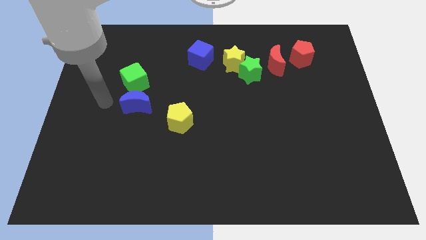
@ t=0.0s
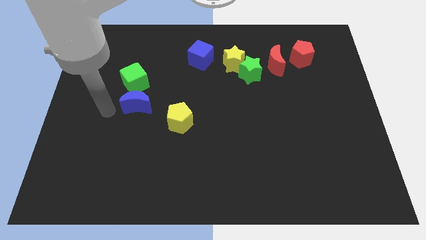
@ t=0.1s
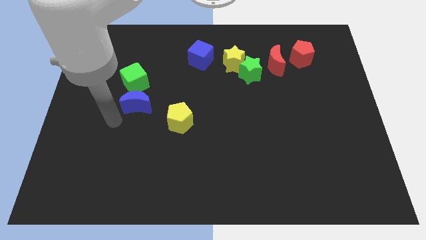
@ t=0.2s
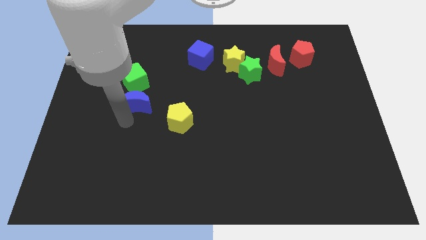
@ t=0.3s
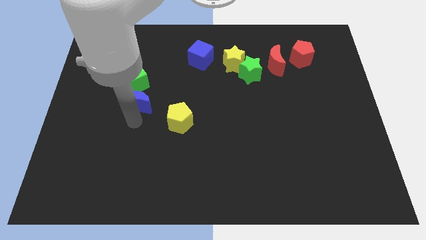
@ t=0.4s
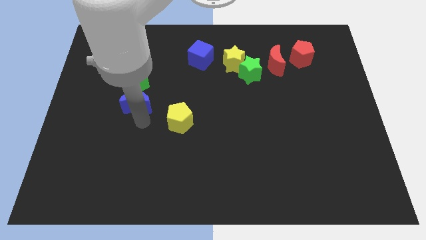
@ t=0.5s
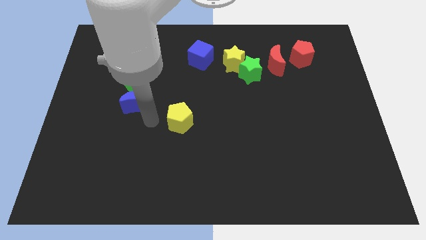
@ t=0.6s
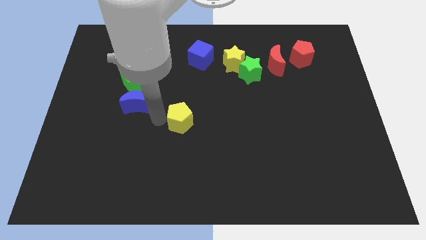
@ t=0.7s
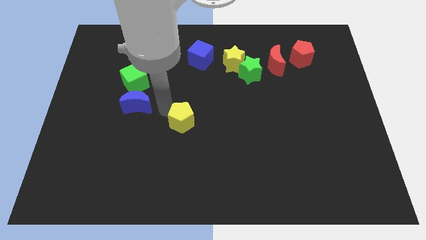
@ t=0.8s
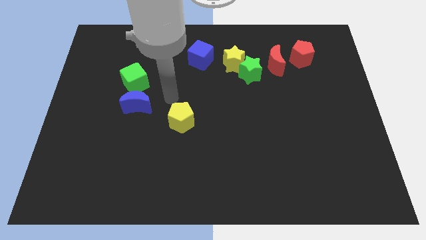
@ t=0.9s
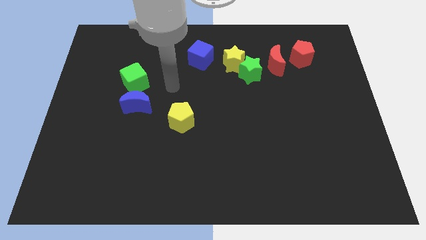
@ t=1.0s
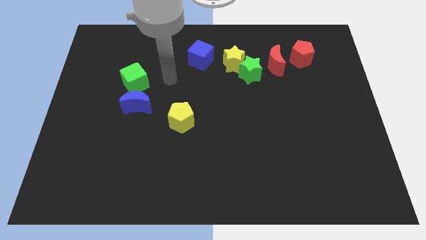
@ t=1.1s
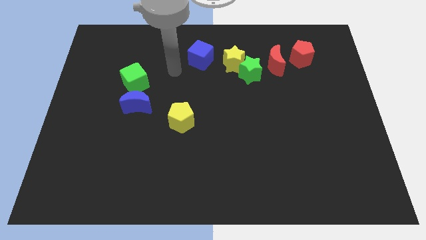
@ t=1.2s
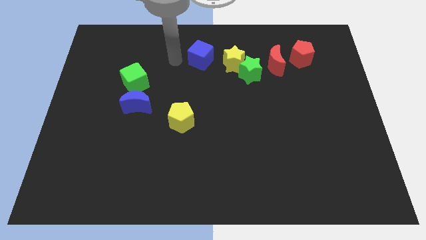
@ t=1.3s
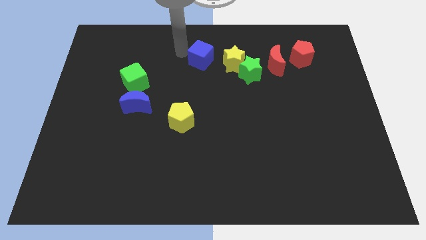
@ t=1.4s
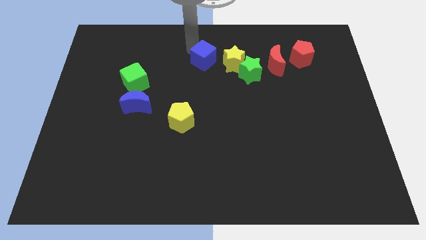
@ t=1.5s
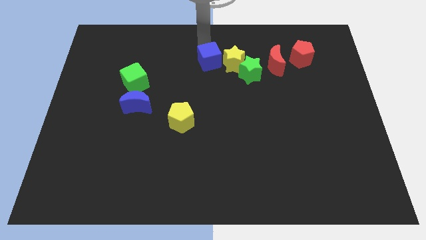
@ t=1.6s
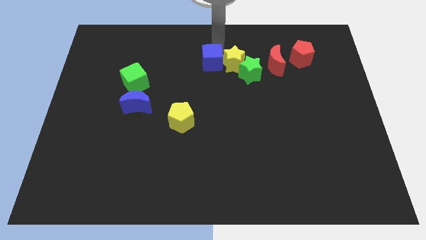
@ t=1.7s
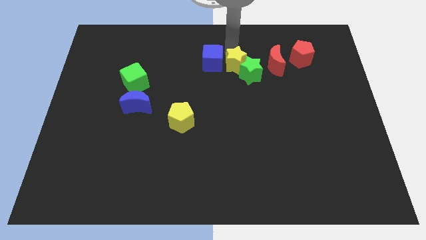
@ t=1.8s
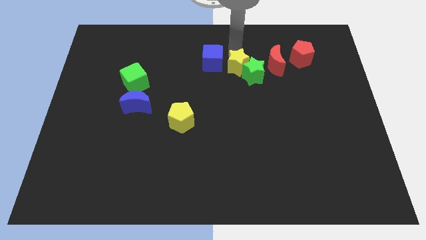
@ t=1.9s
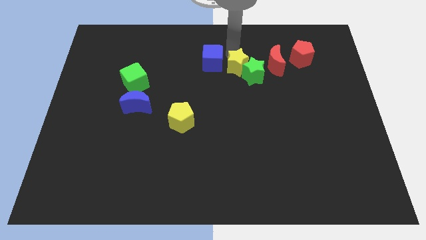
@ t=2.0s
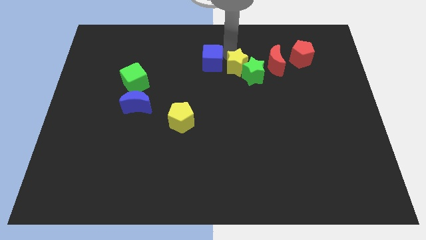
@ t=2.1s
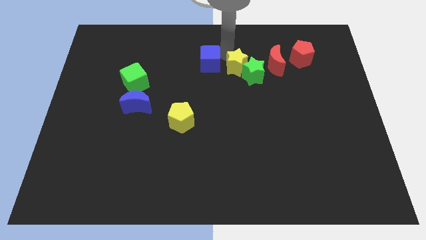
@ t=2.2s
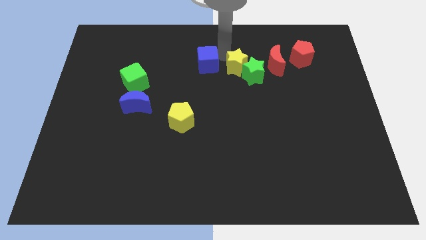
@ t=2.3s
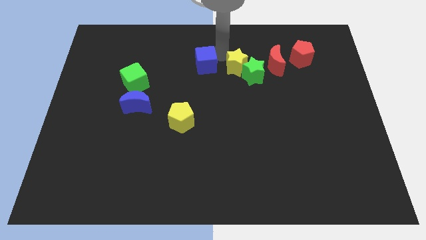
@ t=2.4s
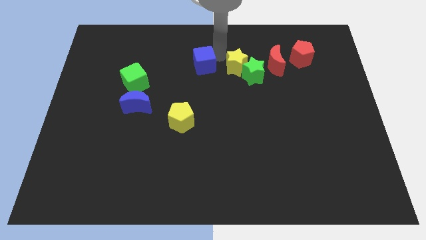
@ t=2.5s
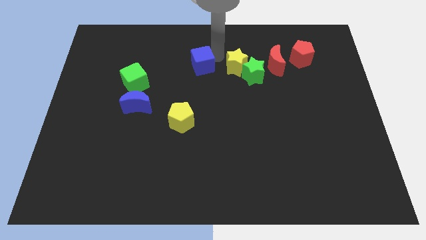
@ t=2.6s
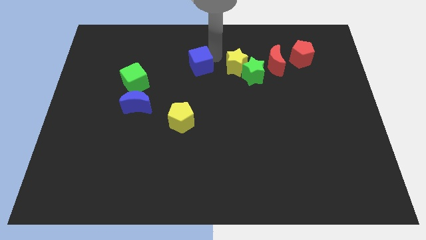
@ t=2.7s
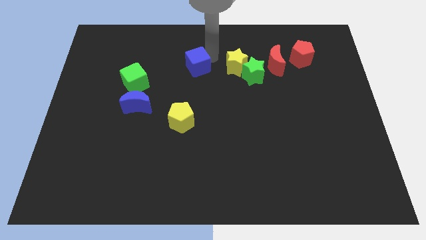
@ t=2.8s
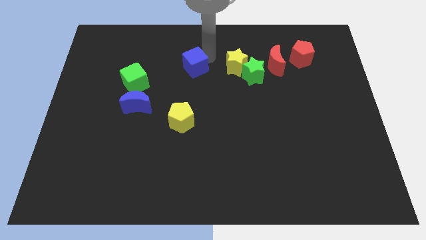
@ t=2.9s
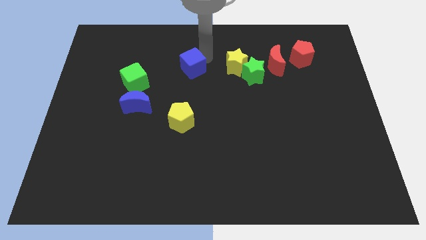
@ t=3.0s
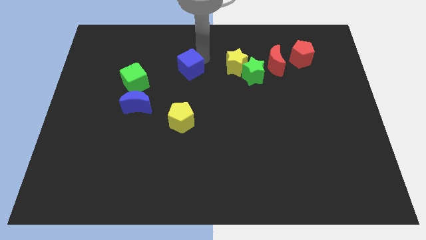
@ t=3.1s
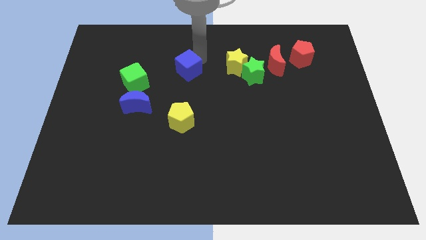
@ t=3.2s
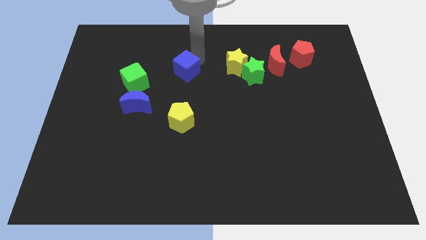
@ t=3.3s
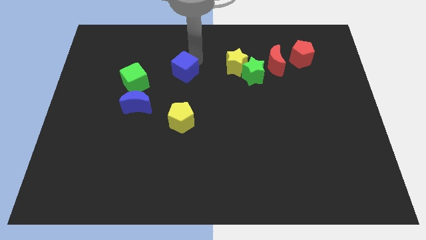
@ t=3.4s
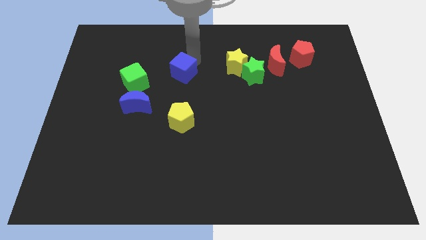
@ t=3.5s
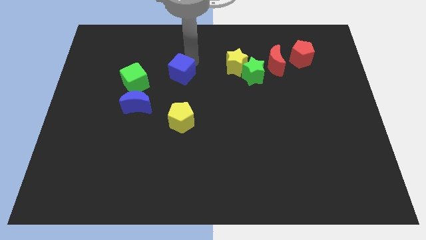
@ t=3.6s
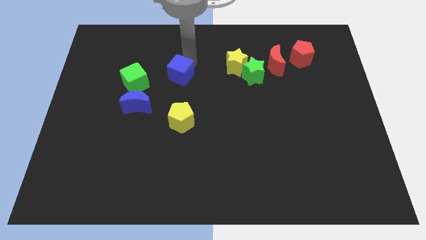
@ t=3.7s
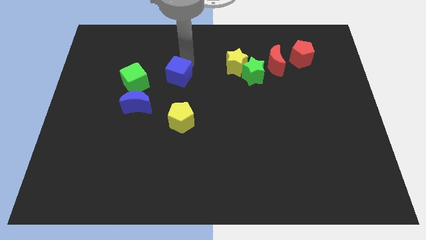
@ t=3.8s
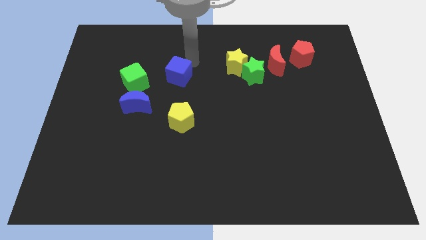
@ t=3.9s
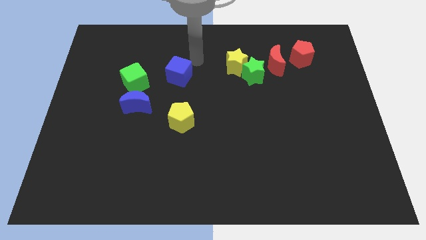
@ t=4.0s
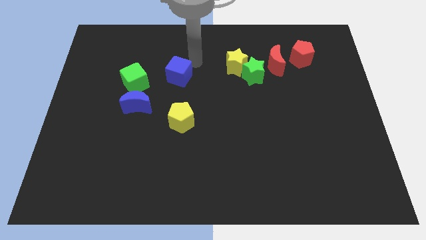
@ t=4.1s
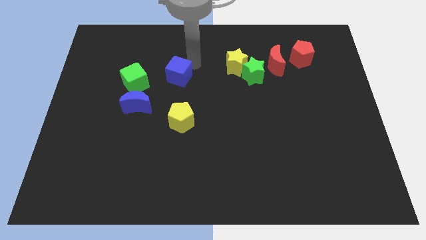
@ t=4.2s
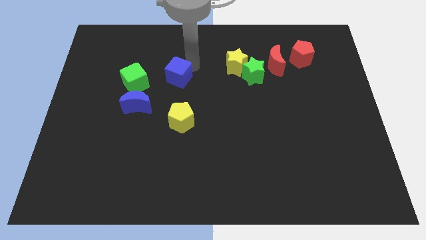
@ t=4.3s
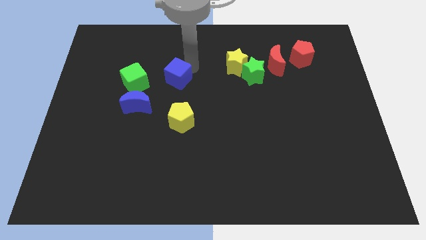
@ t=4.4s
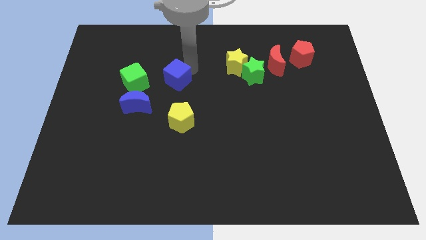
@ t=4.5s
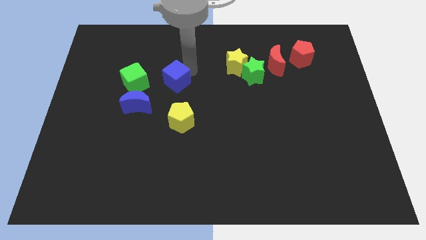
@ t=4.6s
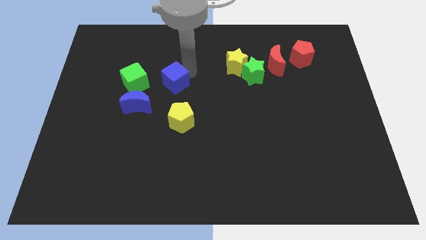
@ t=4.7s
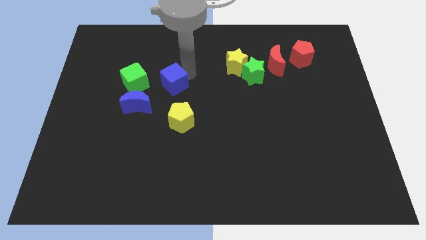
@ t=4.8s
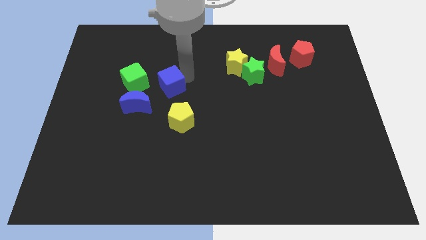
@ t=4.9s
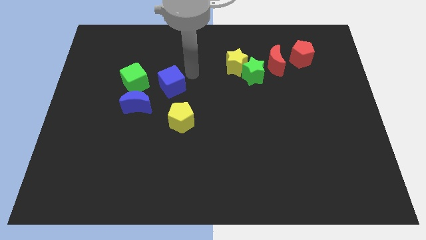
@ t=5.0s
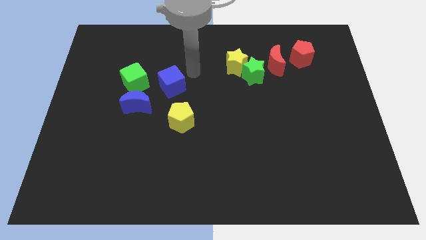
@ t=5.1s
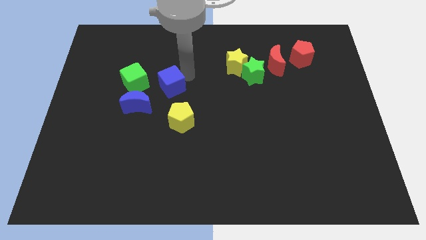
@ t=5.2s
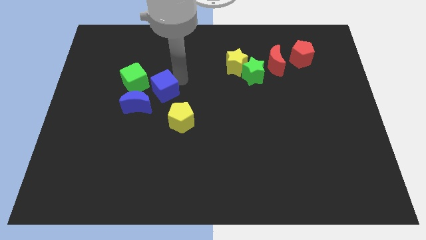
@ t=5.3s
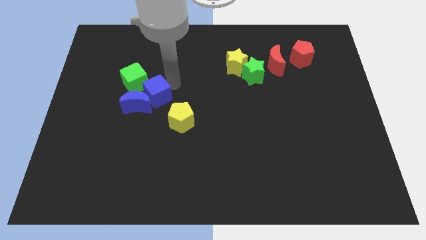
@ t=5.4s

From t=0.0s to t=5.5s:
put the blue cube towards the blue moon

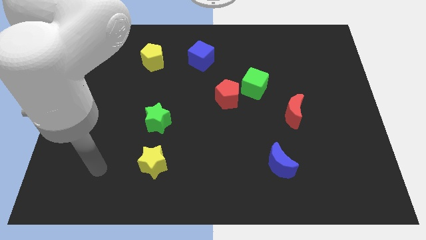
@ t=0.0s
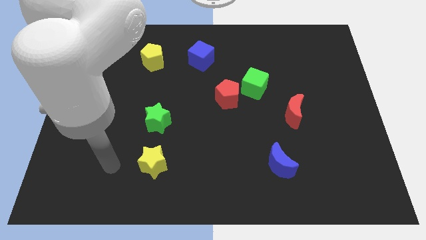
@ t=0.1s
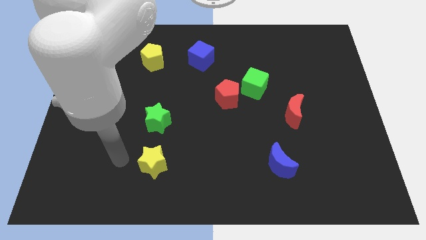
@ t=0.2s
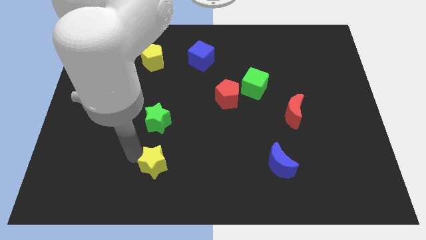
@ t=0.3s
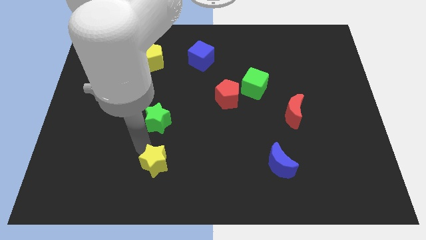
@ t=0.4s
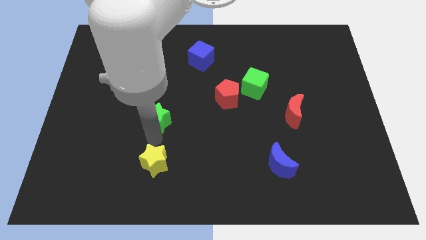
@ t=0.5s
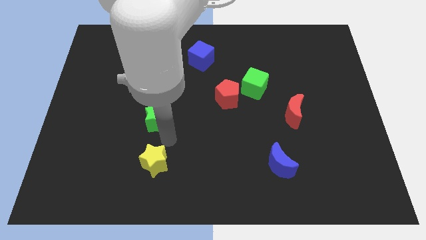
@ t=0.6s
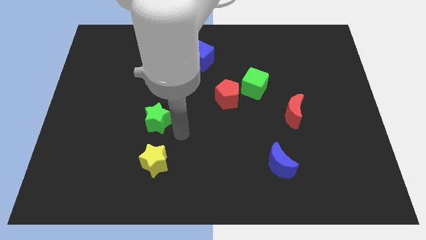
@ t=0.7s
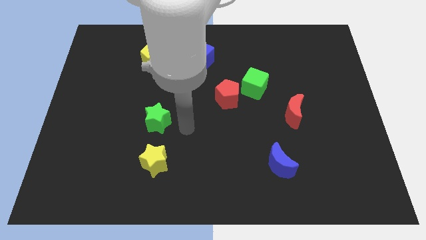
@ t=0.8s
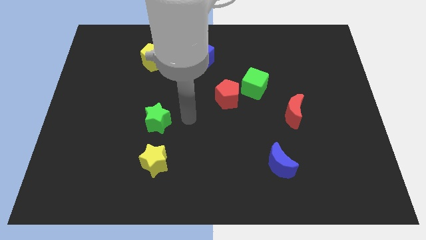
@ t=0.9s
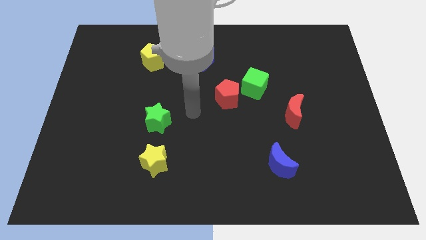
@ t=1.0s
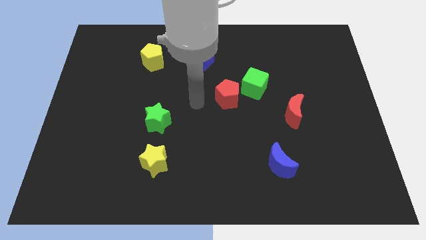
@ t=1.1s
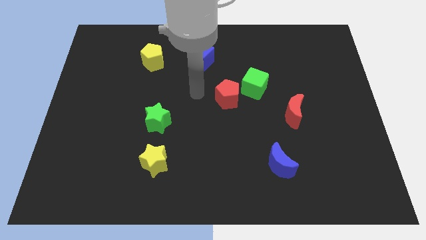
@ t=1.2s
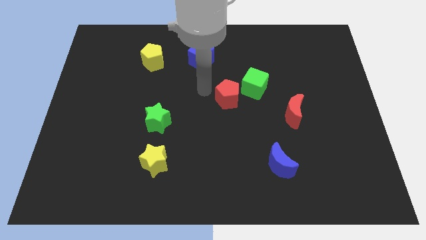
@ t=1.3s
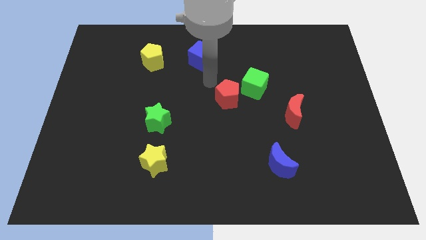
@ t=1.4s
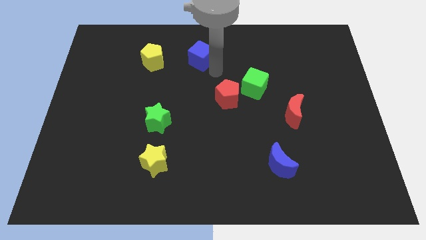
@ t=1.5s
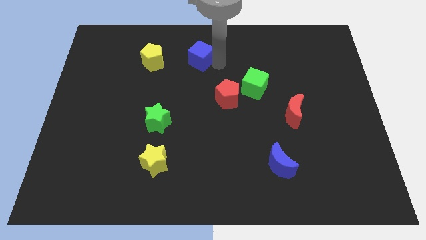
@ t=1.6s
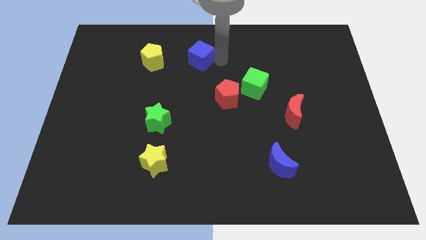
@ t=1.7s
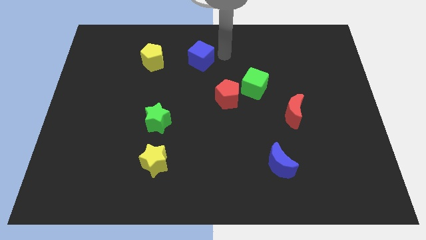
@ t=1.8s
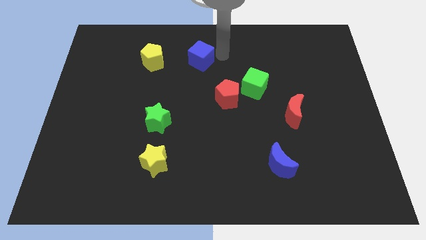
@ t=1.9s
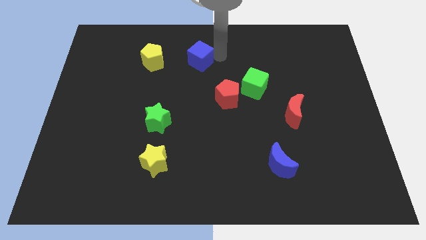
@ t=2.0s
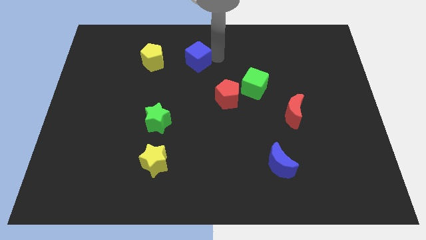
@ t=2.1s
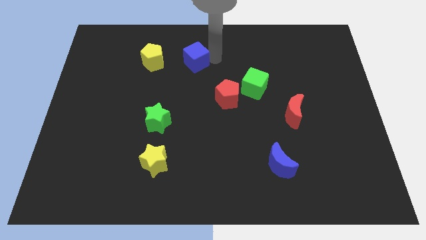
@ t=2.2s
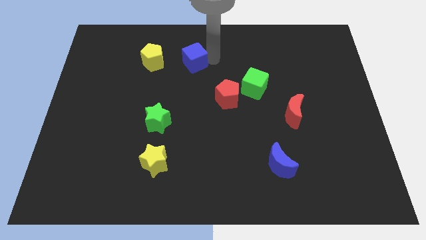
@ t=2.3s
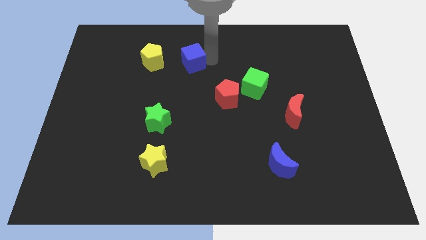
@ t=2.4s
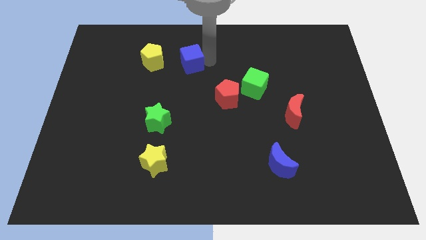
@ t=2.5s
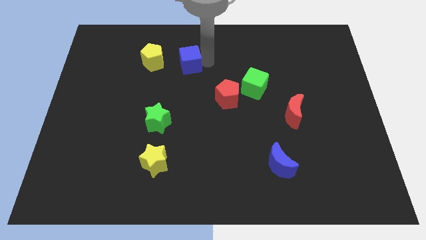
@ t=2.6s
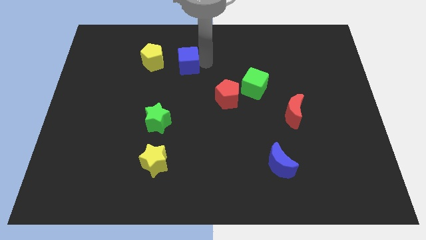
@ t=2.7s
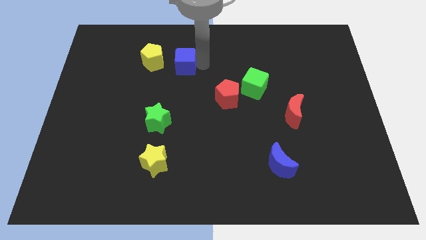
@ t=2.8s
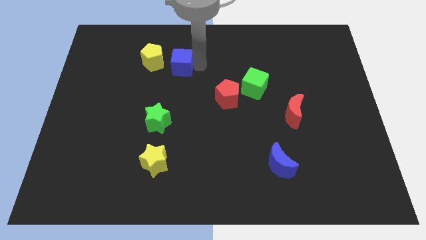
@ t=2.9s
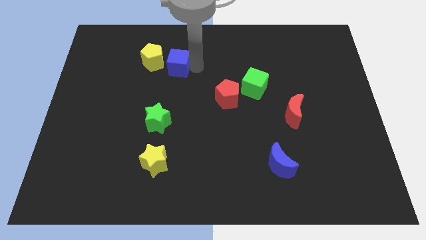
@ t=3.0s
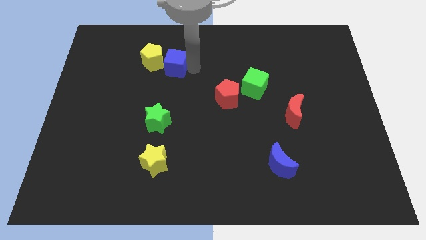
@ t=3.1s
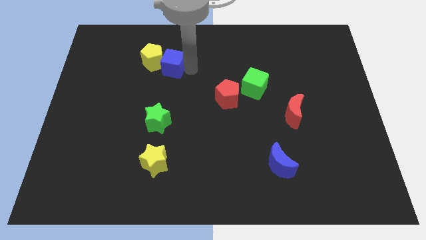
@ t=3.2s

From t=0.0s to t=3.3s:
put the blue cube close to the yellow pentagon
